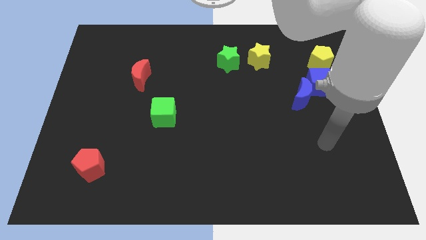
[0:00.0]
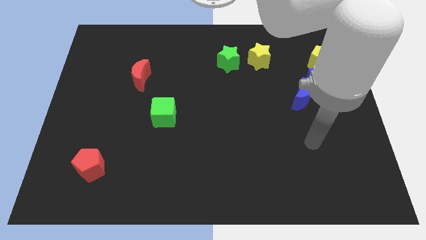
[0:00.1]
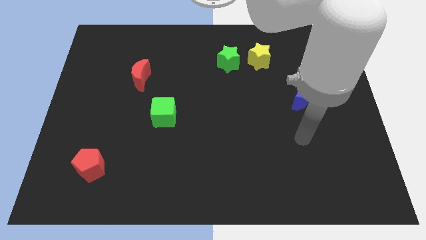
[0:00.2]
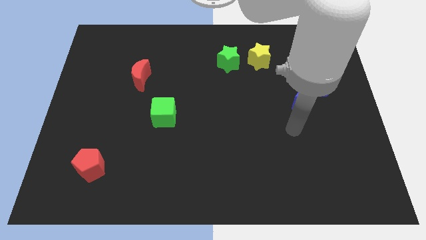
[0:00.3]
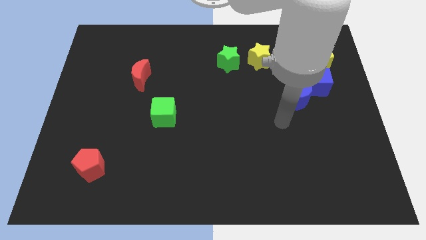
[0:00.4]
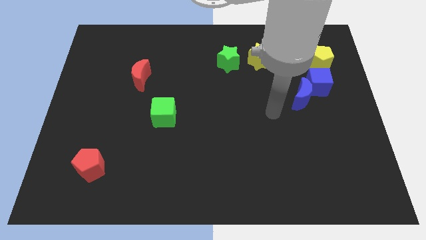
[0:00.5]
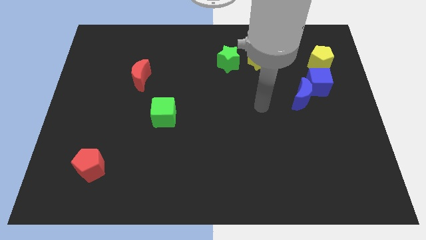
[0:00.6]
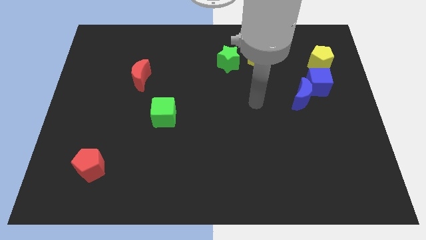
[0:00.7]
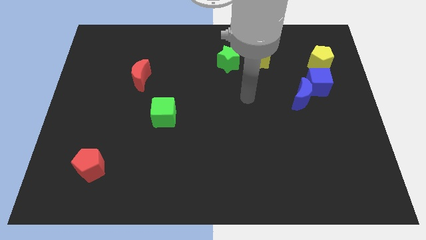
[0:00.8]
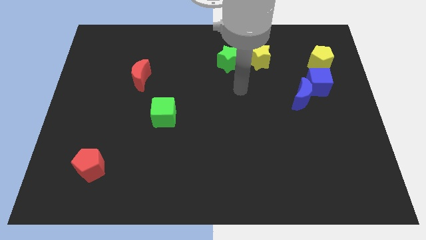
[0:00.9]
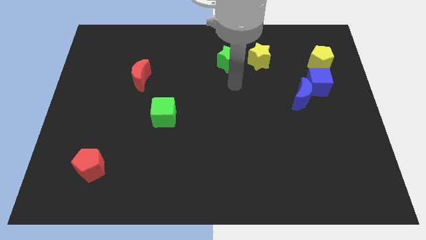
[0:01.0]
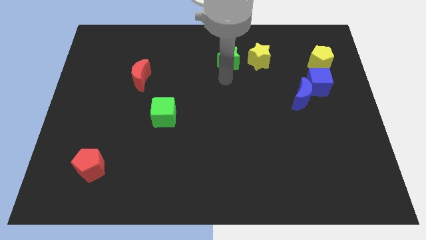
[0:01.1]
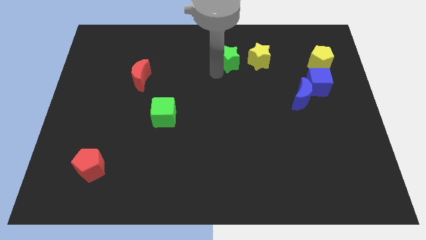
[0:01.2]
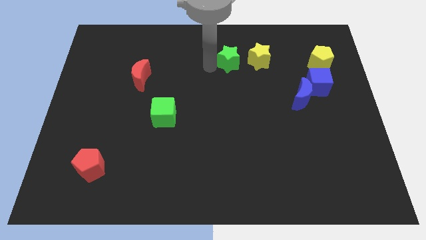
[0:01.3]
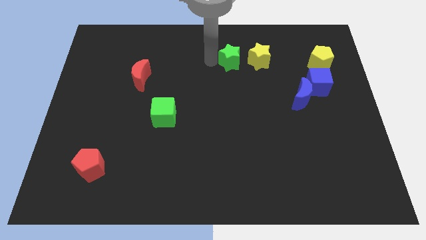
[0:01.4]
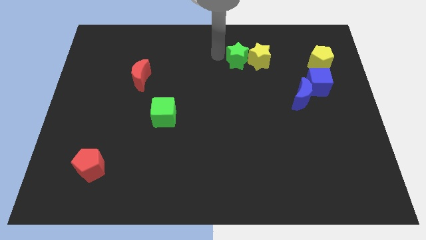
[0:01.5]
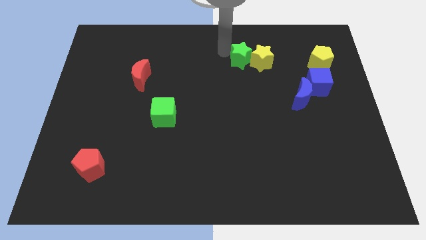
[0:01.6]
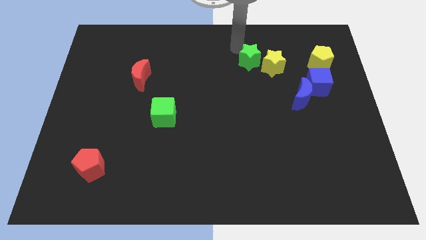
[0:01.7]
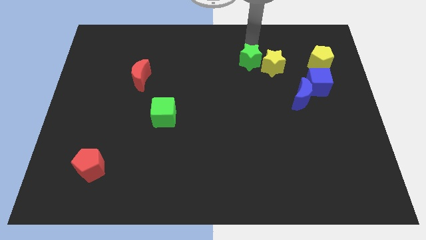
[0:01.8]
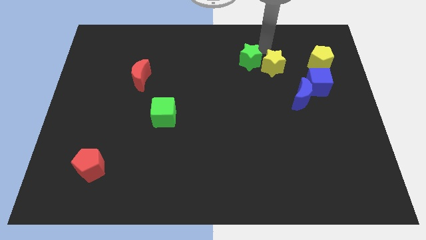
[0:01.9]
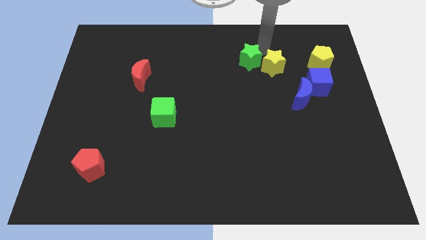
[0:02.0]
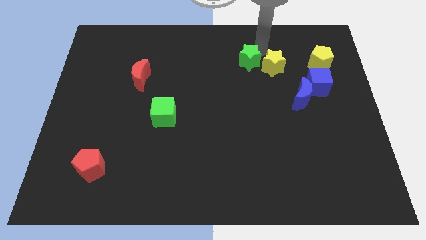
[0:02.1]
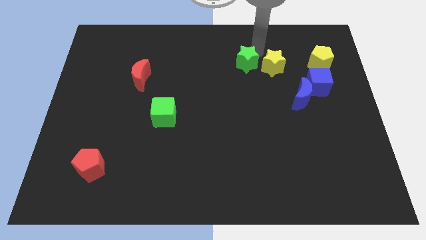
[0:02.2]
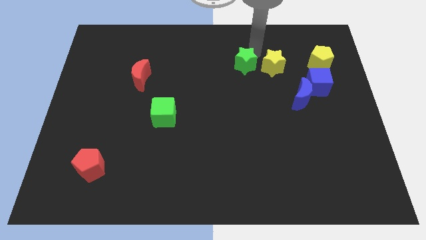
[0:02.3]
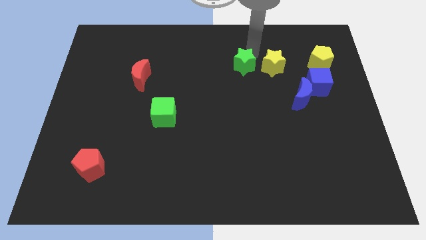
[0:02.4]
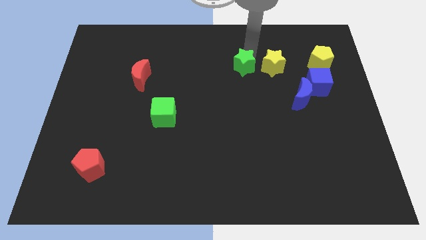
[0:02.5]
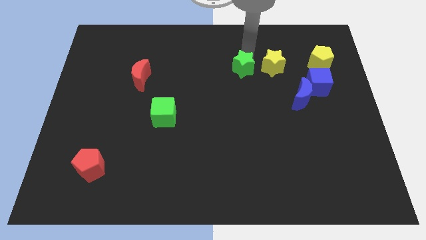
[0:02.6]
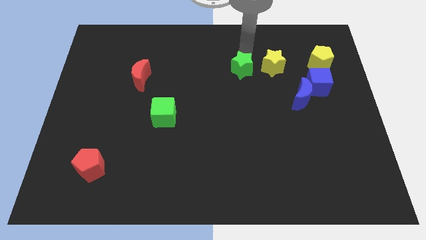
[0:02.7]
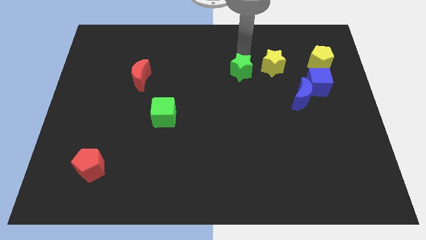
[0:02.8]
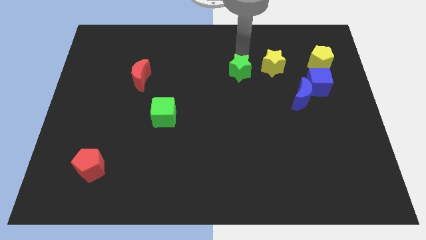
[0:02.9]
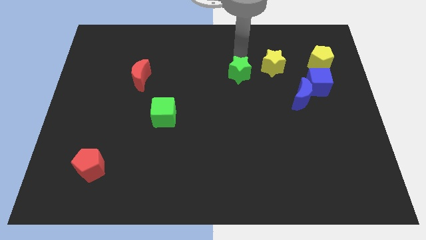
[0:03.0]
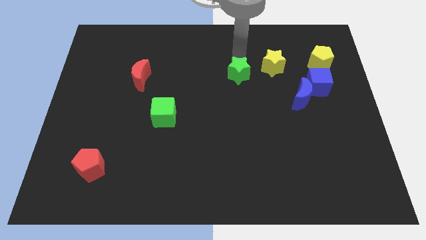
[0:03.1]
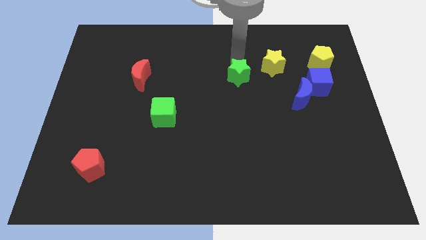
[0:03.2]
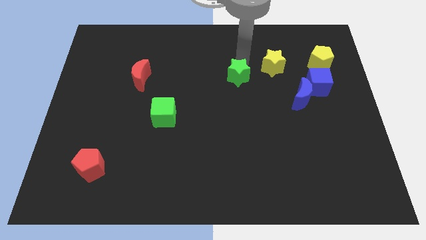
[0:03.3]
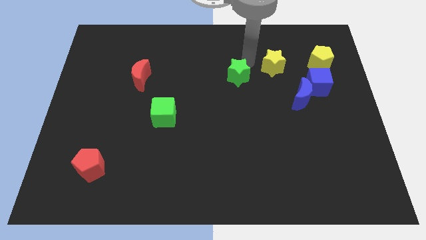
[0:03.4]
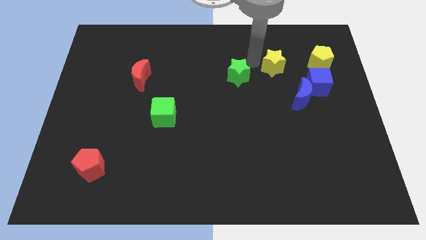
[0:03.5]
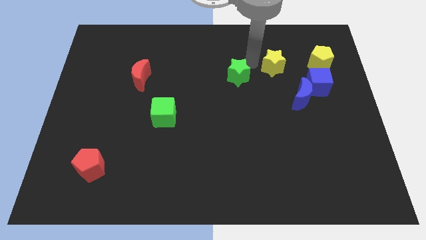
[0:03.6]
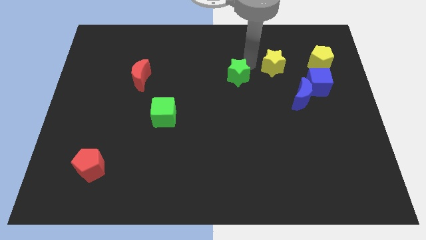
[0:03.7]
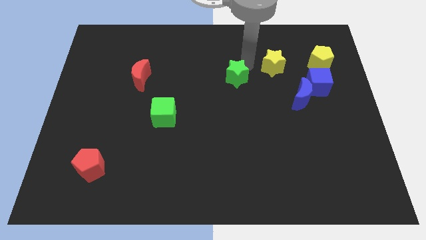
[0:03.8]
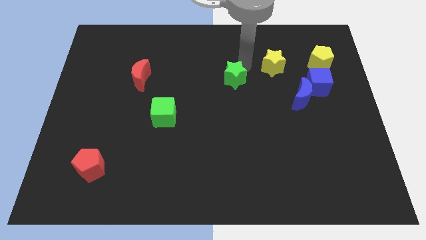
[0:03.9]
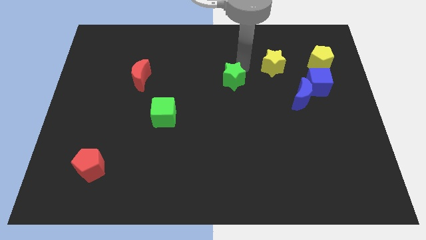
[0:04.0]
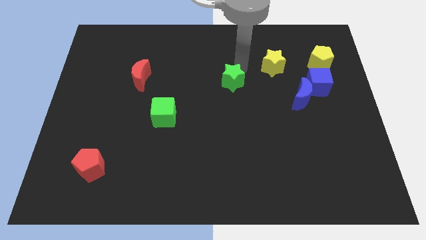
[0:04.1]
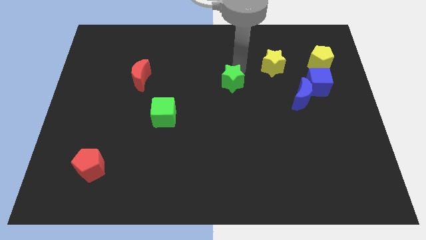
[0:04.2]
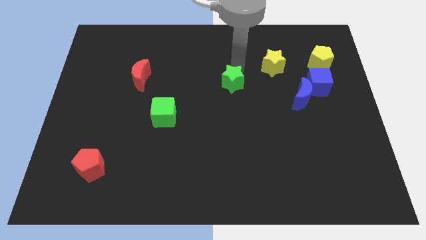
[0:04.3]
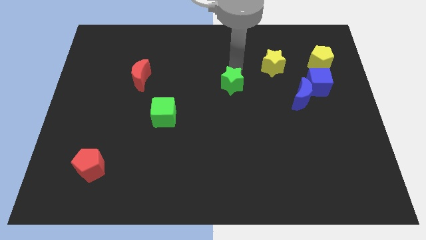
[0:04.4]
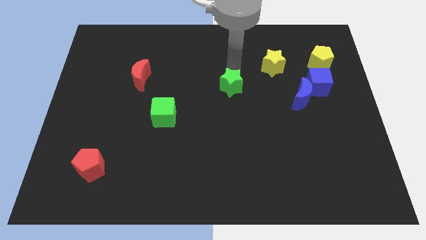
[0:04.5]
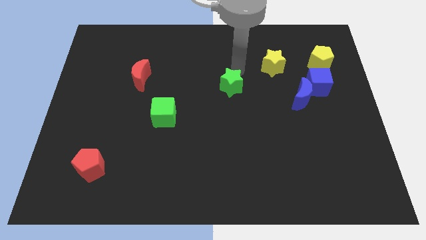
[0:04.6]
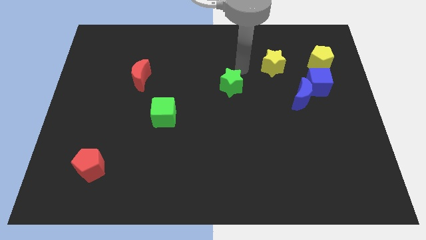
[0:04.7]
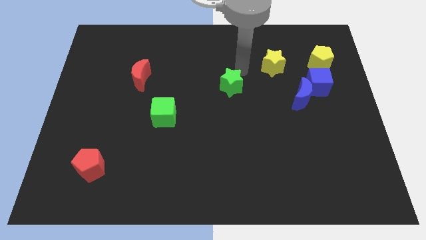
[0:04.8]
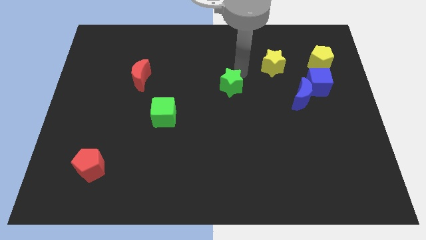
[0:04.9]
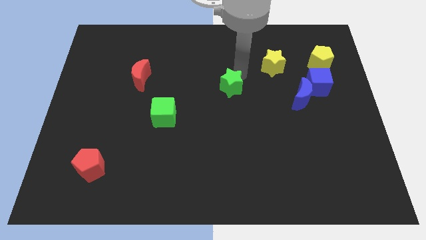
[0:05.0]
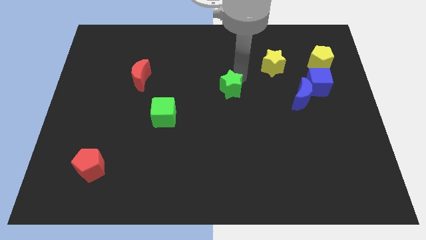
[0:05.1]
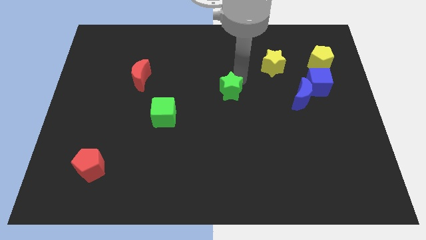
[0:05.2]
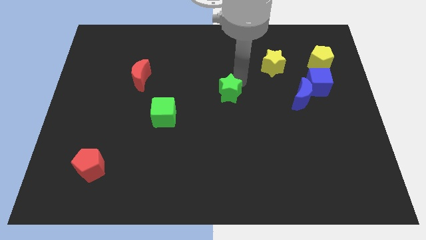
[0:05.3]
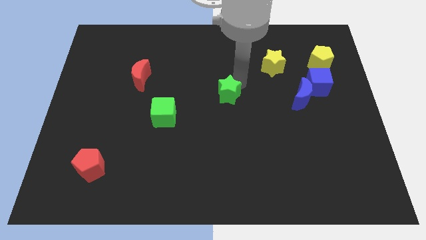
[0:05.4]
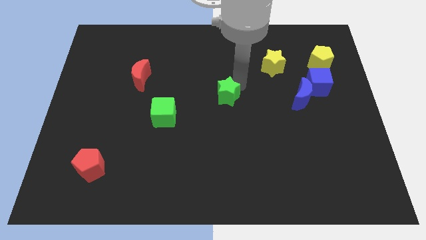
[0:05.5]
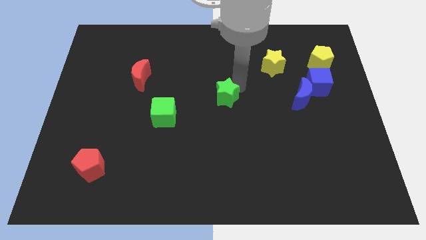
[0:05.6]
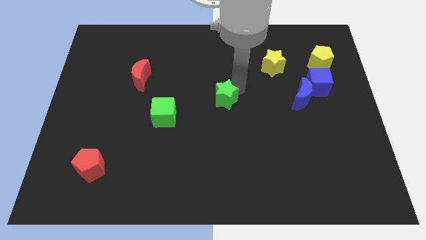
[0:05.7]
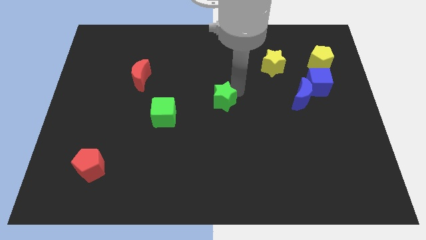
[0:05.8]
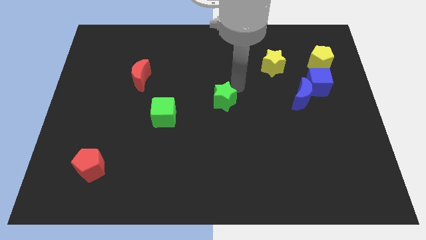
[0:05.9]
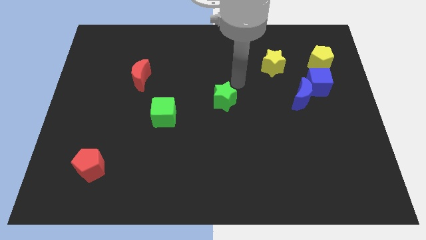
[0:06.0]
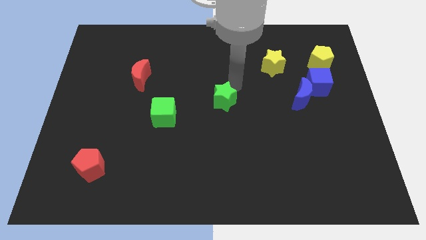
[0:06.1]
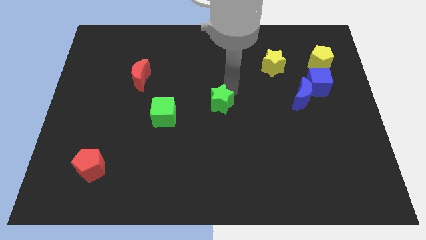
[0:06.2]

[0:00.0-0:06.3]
put the green star just right of the green cube

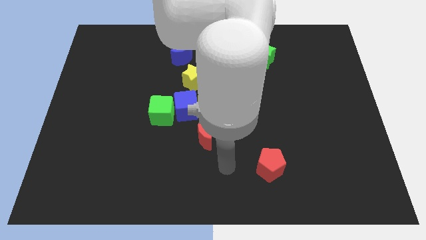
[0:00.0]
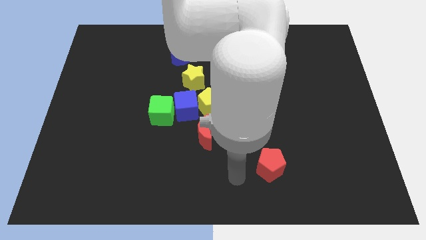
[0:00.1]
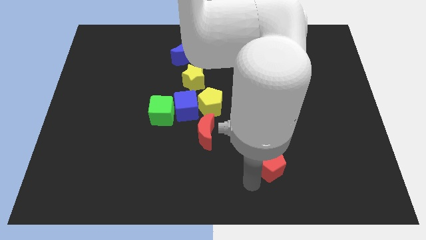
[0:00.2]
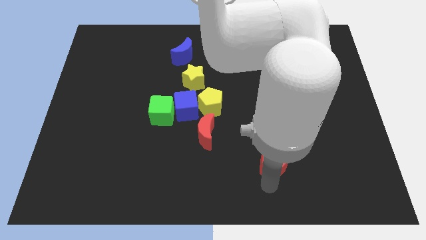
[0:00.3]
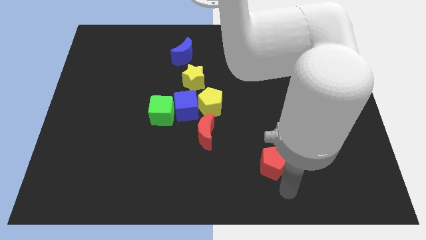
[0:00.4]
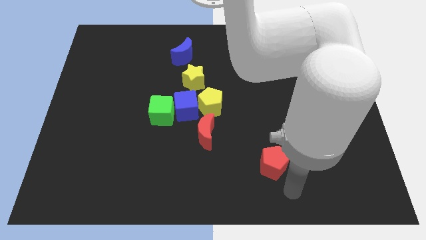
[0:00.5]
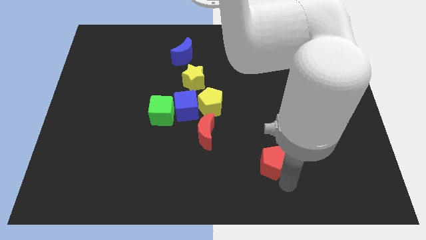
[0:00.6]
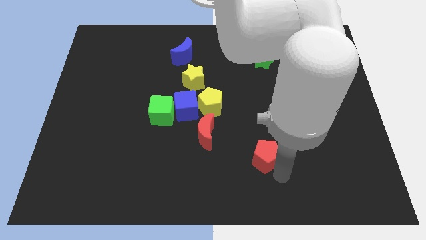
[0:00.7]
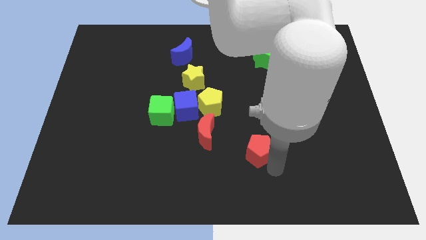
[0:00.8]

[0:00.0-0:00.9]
move the red pentagon to the right of the red moon

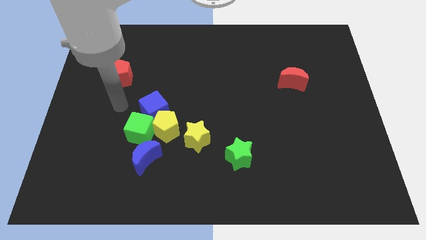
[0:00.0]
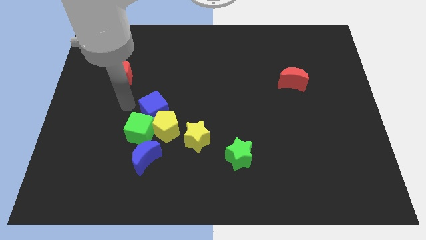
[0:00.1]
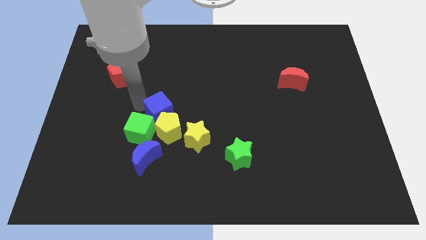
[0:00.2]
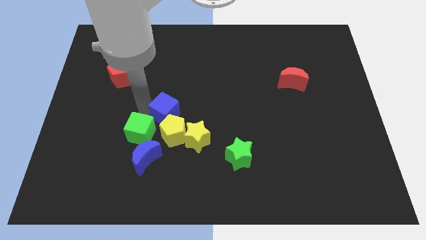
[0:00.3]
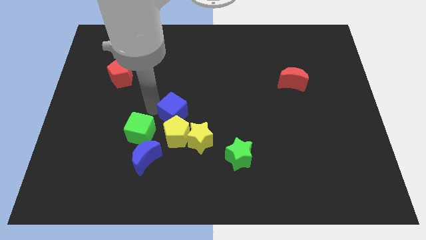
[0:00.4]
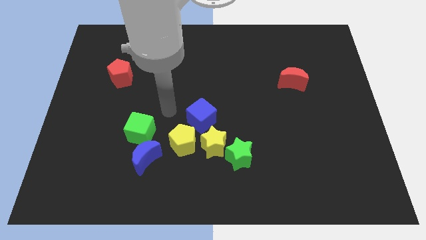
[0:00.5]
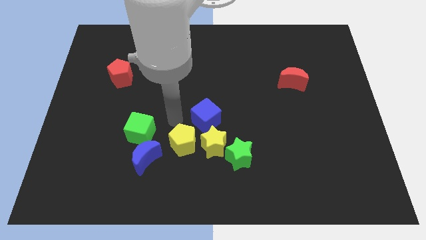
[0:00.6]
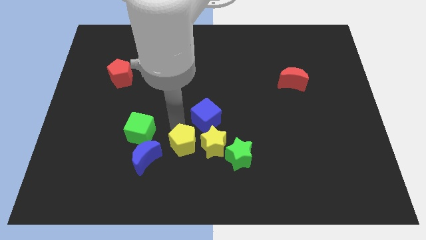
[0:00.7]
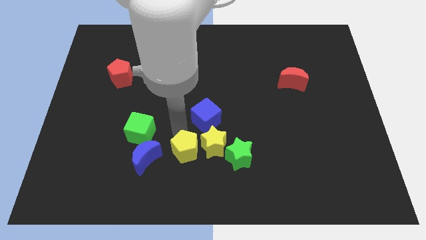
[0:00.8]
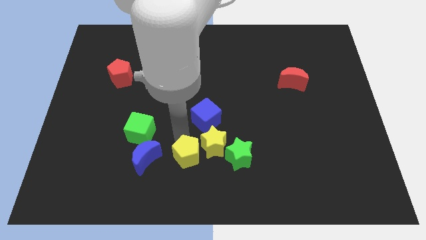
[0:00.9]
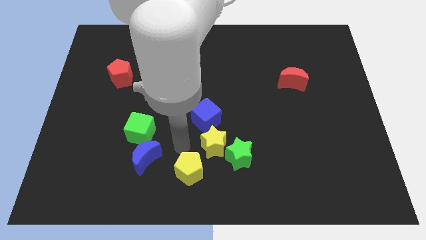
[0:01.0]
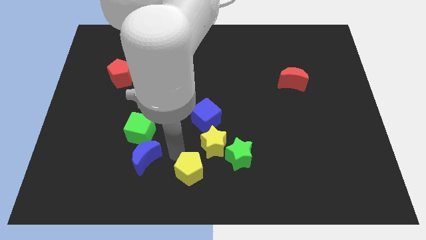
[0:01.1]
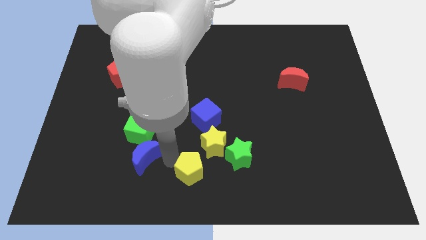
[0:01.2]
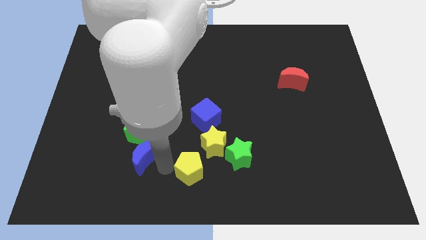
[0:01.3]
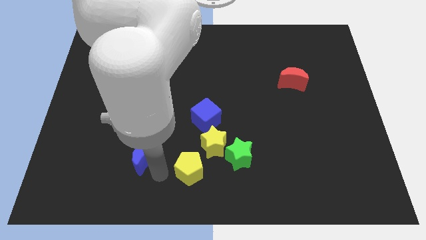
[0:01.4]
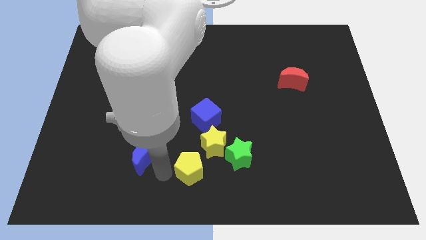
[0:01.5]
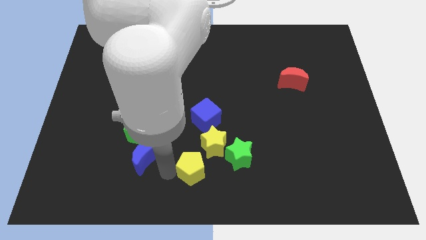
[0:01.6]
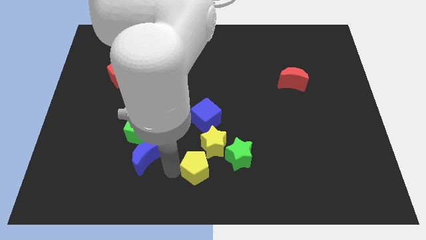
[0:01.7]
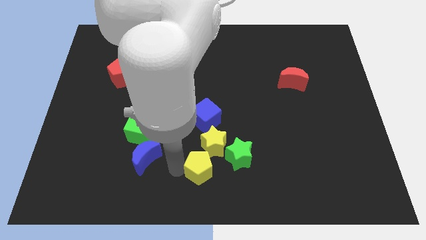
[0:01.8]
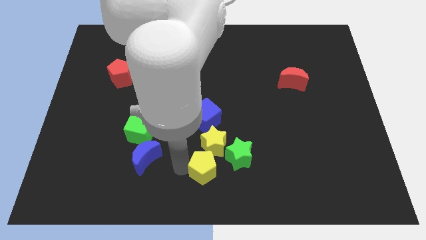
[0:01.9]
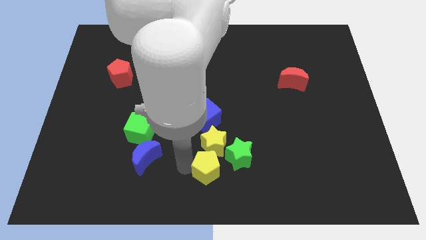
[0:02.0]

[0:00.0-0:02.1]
put the yellow pentagon to the bottom right side of the yellow star
